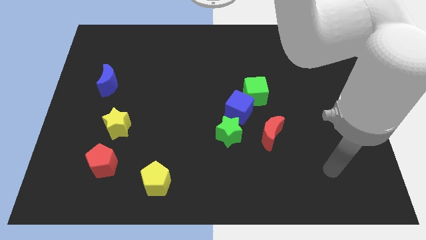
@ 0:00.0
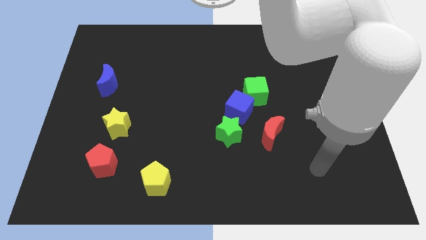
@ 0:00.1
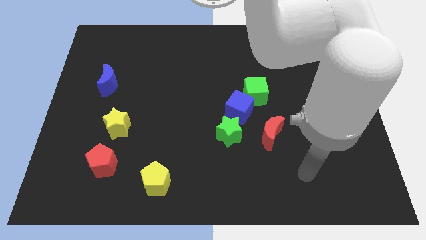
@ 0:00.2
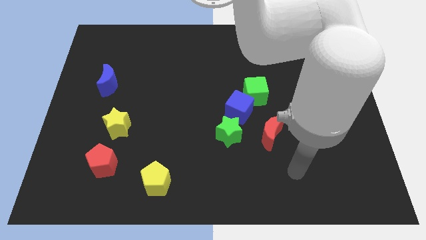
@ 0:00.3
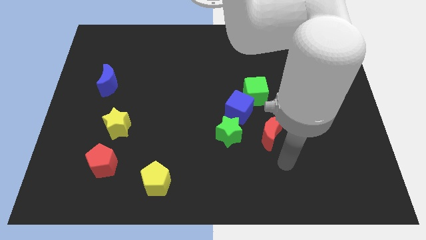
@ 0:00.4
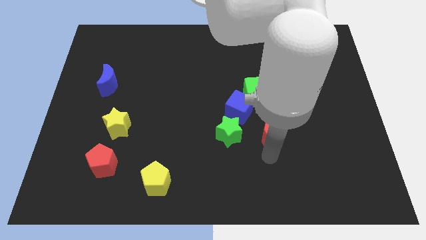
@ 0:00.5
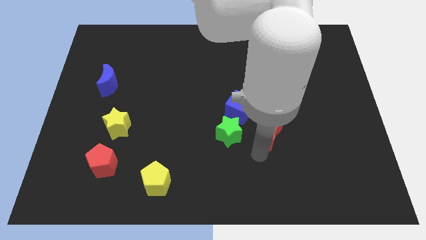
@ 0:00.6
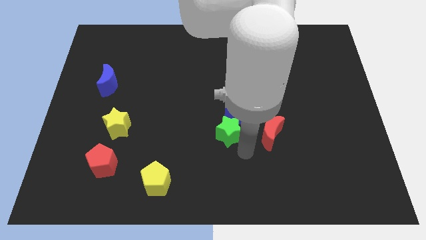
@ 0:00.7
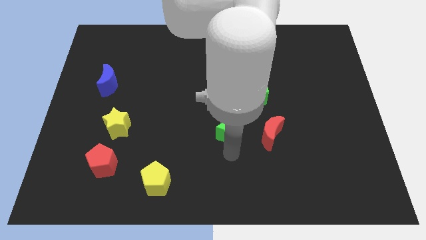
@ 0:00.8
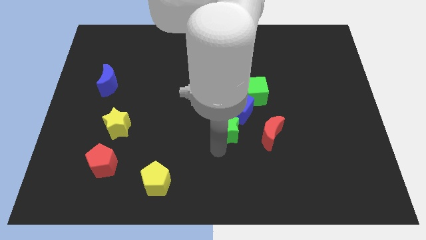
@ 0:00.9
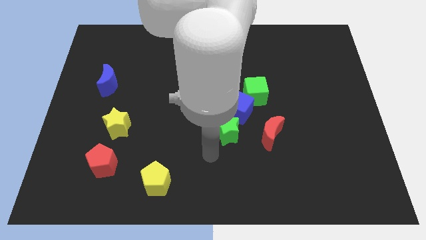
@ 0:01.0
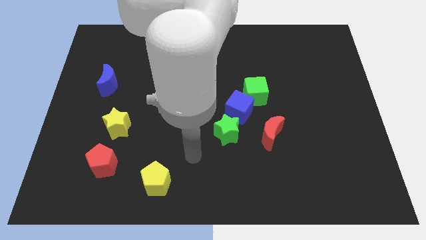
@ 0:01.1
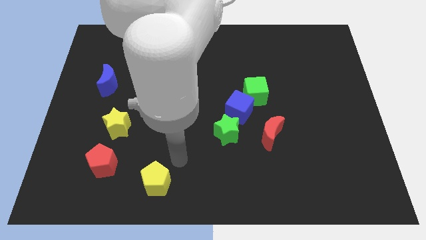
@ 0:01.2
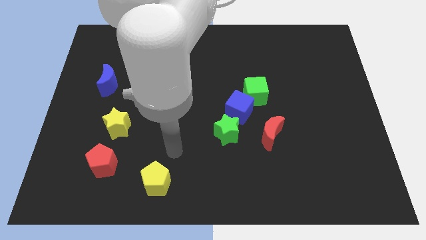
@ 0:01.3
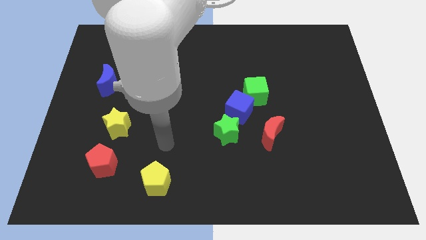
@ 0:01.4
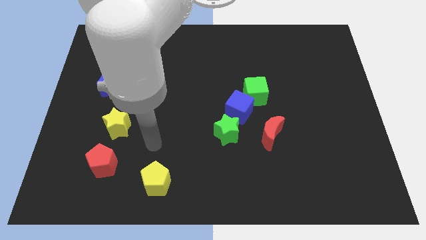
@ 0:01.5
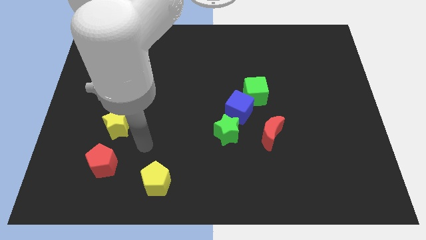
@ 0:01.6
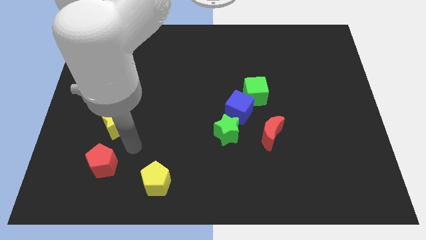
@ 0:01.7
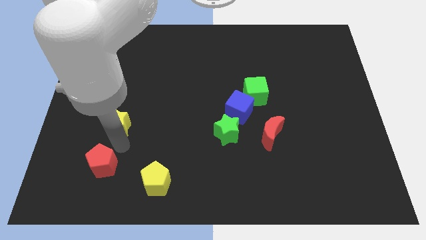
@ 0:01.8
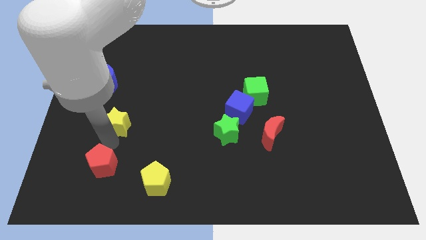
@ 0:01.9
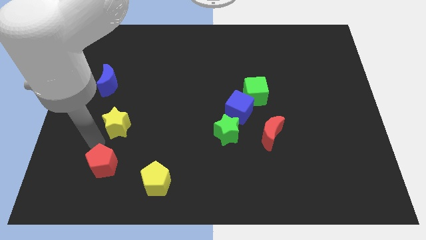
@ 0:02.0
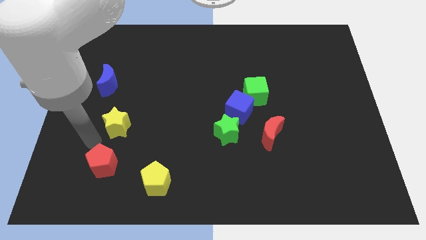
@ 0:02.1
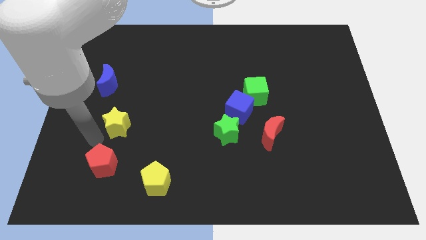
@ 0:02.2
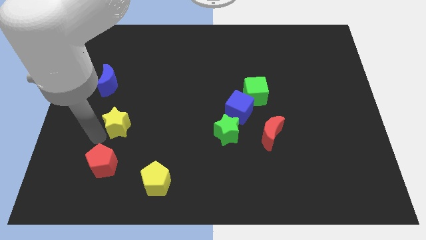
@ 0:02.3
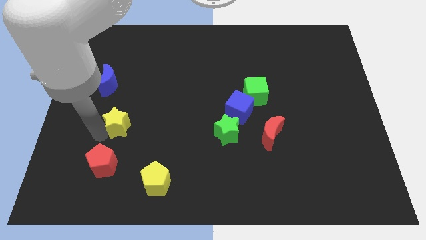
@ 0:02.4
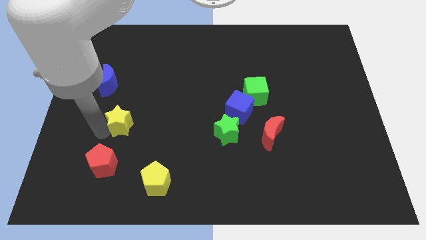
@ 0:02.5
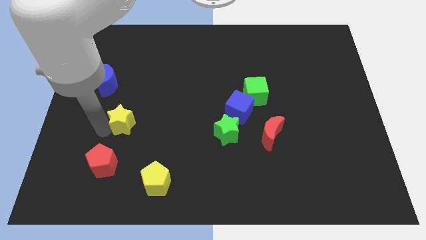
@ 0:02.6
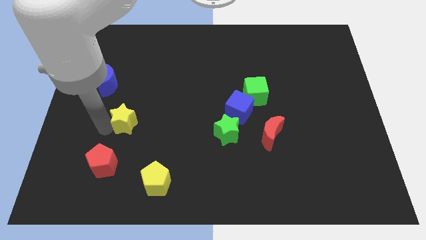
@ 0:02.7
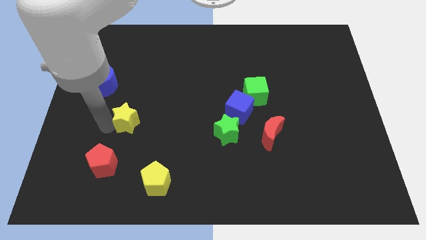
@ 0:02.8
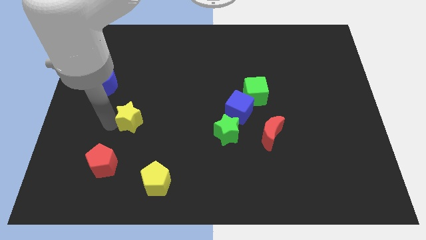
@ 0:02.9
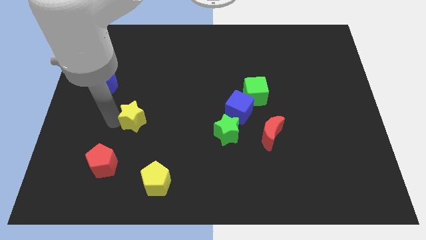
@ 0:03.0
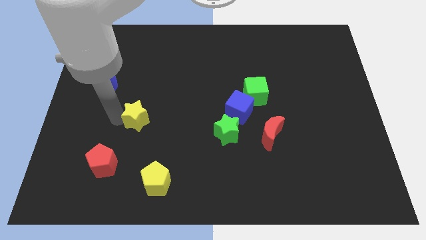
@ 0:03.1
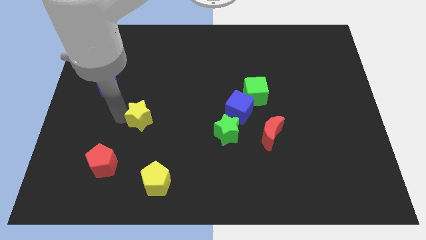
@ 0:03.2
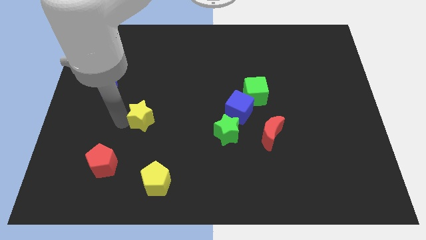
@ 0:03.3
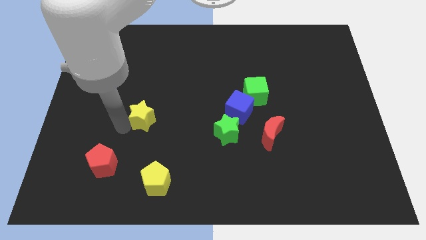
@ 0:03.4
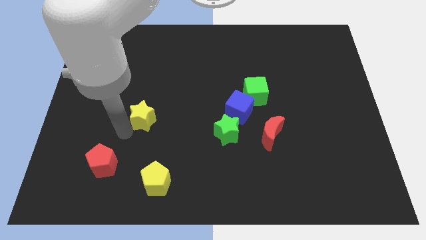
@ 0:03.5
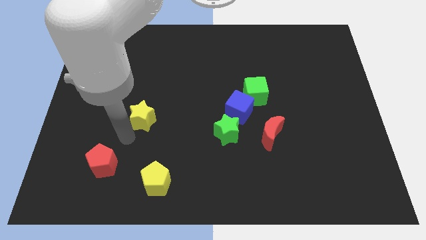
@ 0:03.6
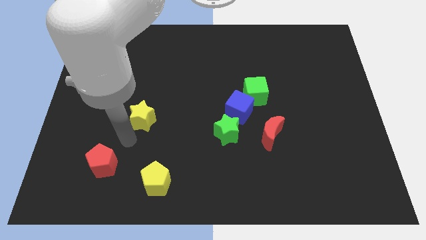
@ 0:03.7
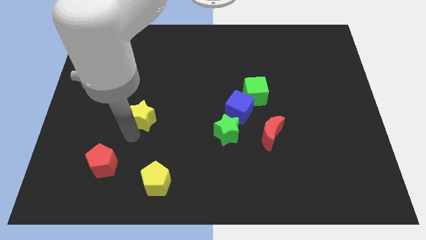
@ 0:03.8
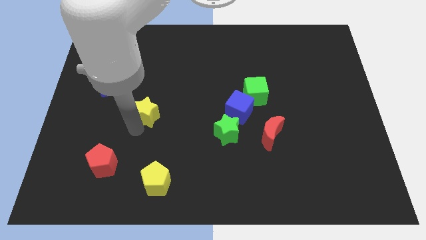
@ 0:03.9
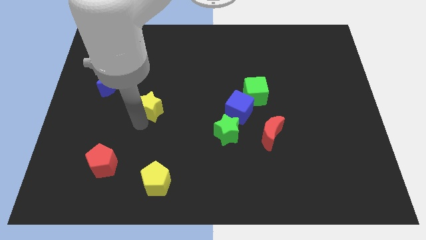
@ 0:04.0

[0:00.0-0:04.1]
slightly slide the yellow star diagonally upwards and right

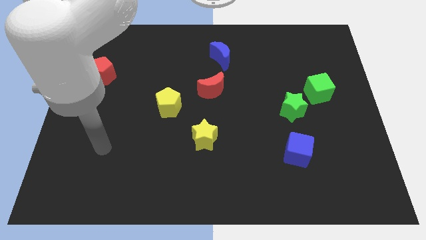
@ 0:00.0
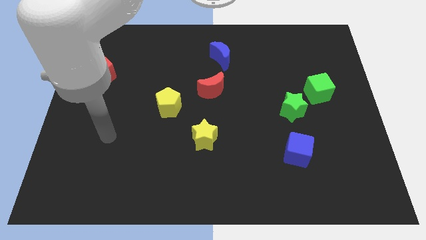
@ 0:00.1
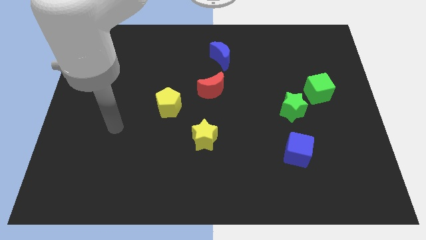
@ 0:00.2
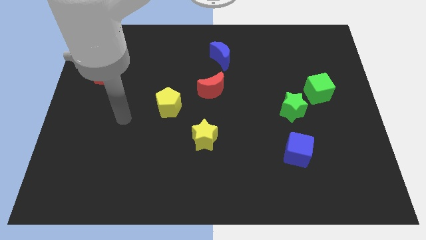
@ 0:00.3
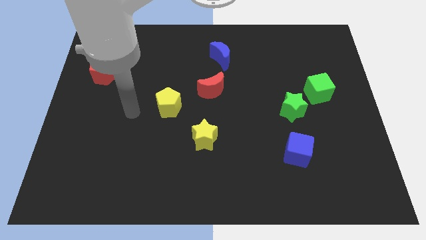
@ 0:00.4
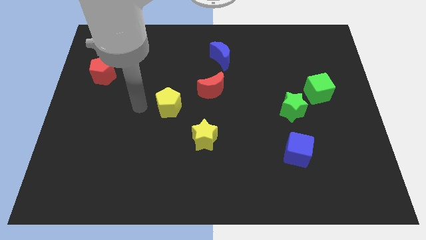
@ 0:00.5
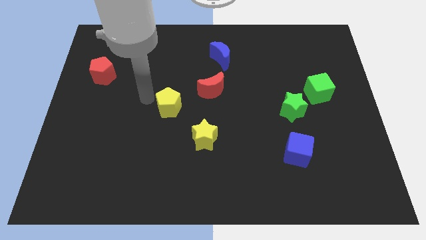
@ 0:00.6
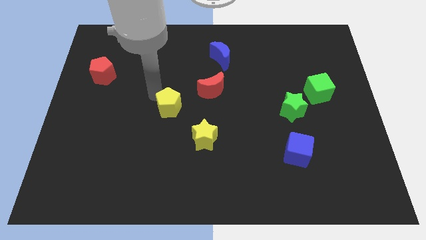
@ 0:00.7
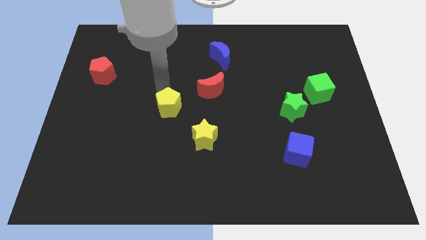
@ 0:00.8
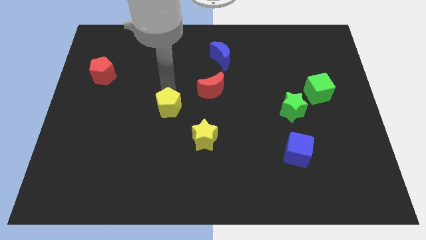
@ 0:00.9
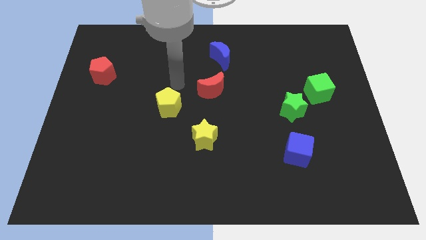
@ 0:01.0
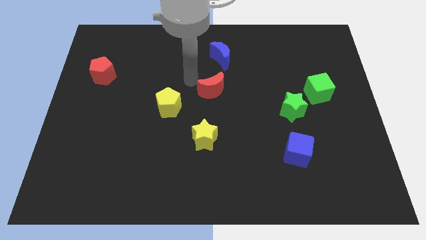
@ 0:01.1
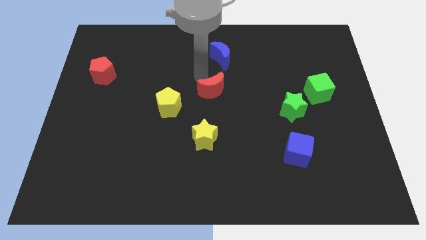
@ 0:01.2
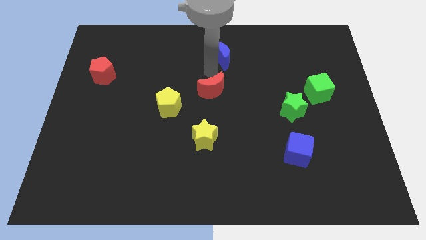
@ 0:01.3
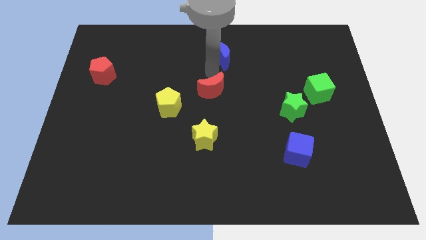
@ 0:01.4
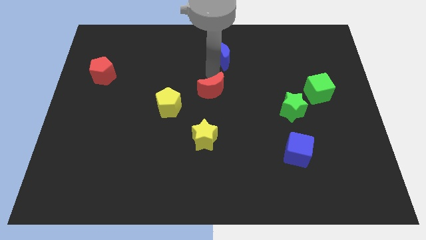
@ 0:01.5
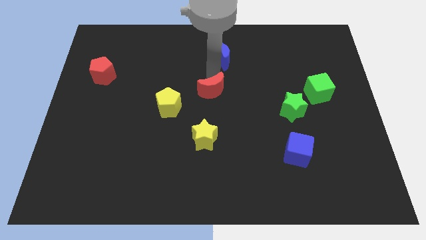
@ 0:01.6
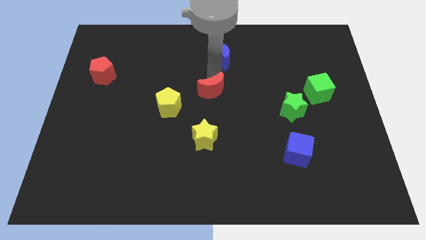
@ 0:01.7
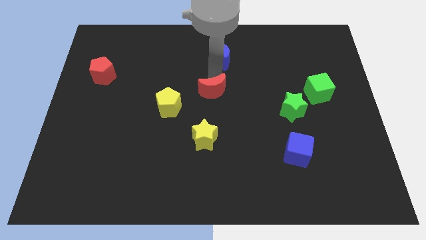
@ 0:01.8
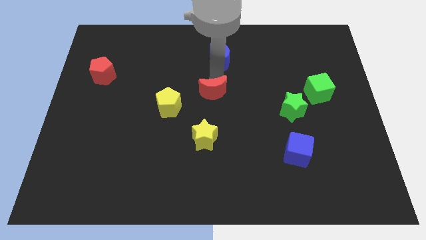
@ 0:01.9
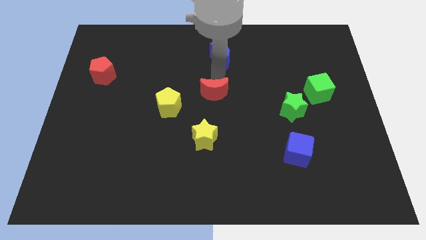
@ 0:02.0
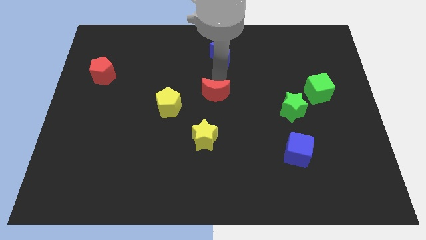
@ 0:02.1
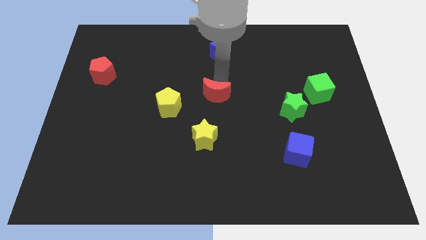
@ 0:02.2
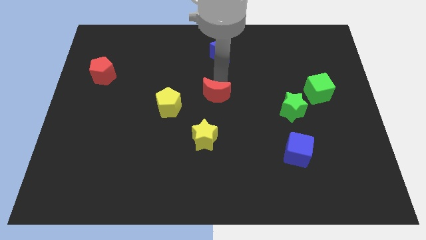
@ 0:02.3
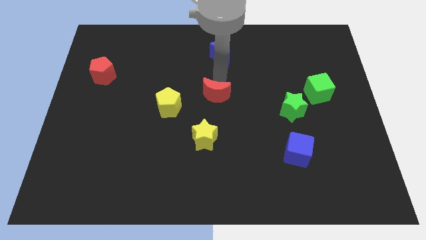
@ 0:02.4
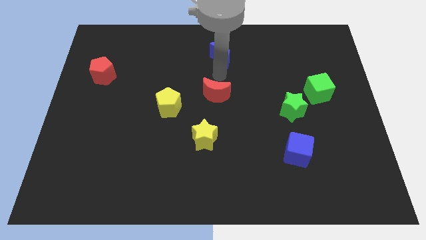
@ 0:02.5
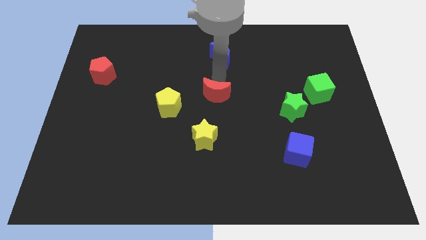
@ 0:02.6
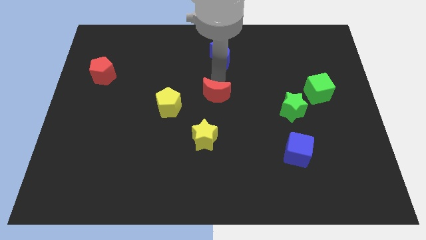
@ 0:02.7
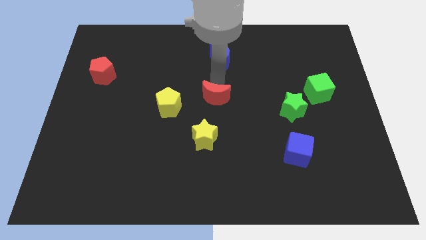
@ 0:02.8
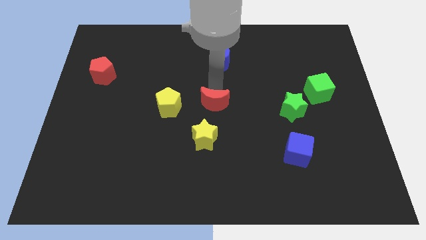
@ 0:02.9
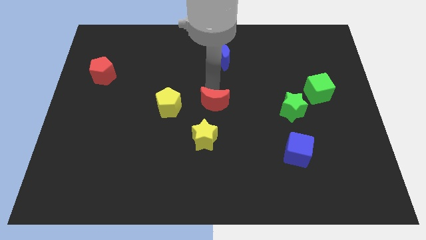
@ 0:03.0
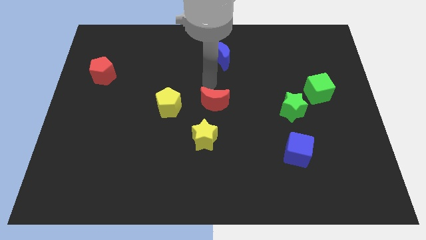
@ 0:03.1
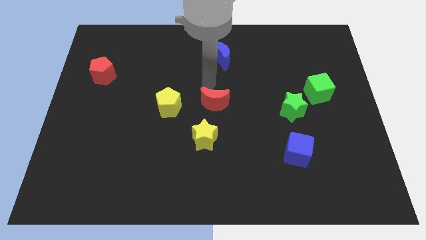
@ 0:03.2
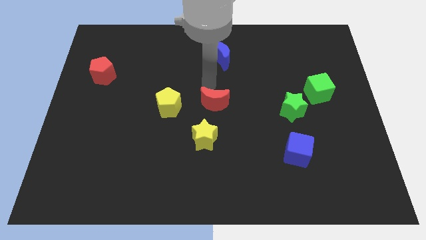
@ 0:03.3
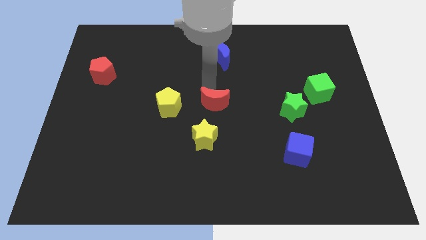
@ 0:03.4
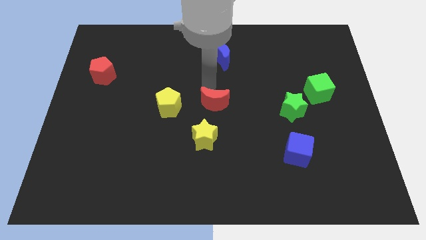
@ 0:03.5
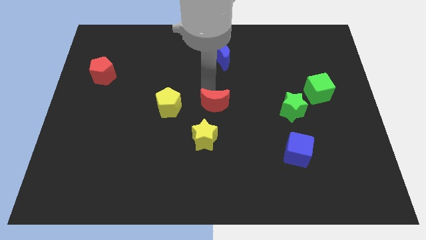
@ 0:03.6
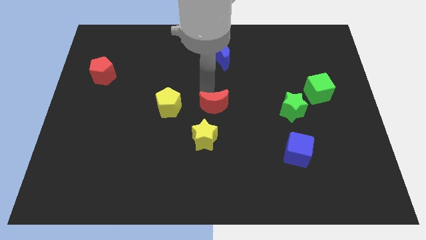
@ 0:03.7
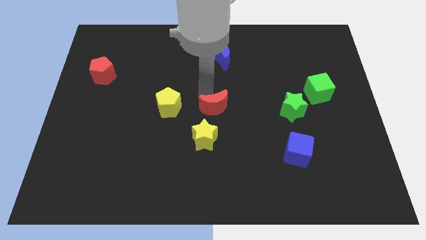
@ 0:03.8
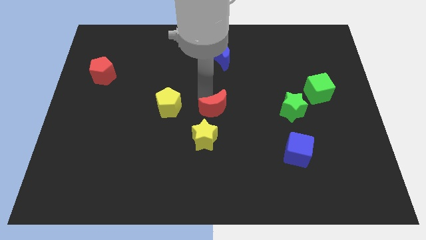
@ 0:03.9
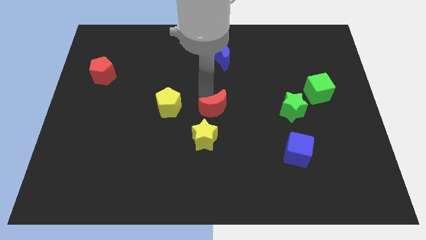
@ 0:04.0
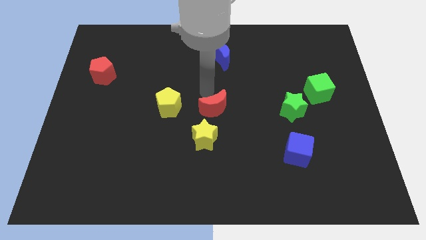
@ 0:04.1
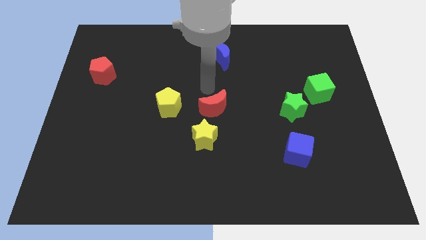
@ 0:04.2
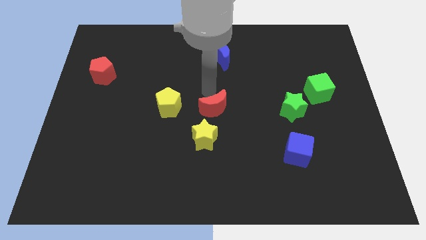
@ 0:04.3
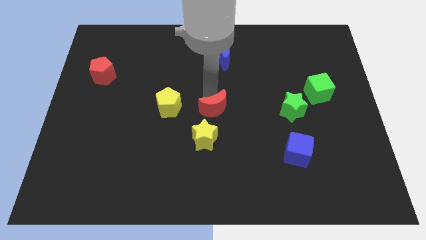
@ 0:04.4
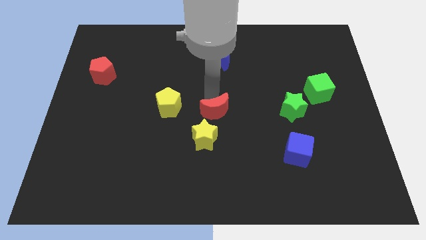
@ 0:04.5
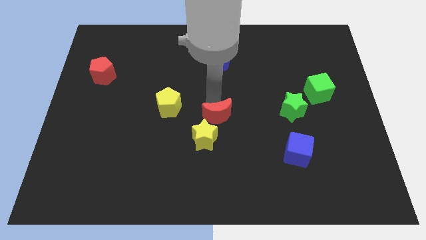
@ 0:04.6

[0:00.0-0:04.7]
slightly push the red moon downwards
